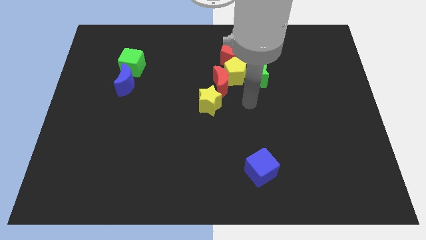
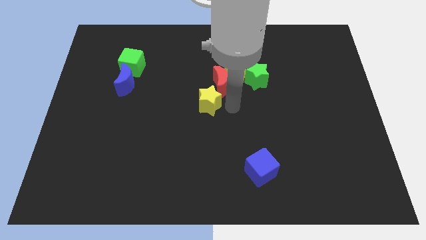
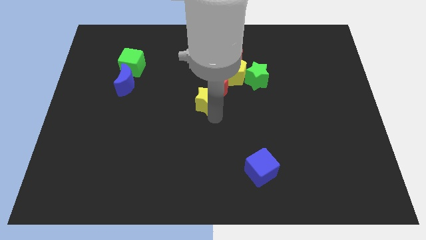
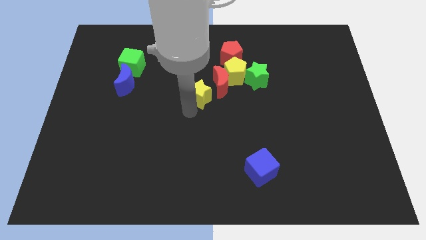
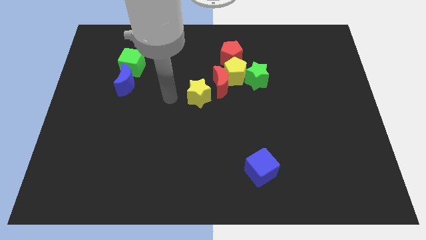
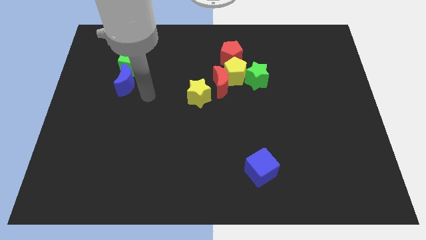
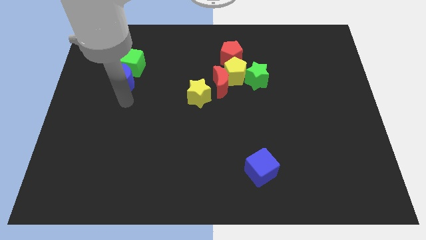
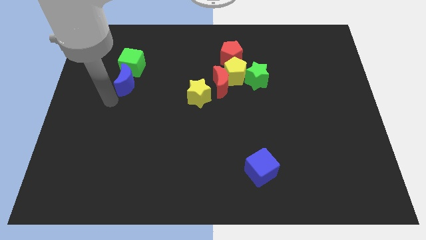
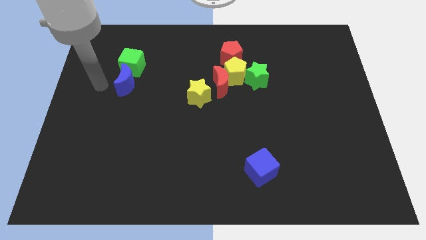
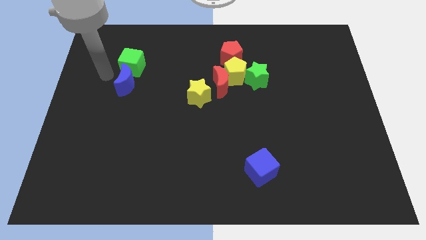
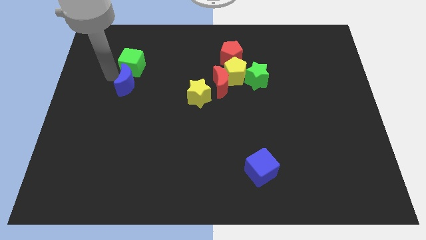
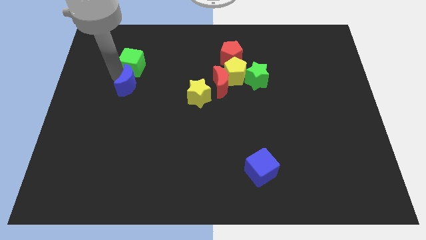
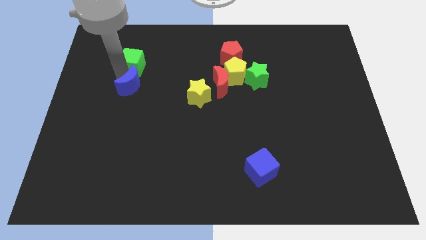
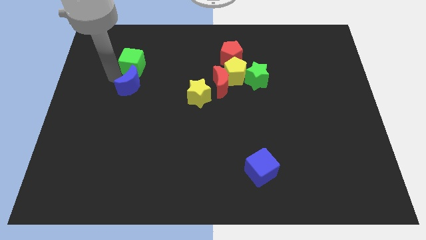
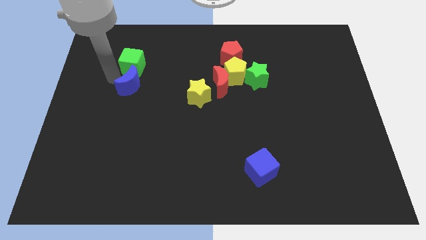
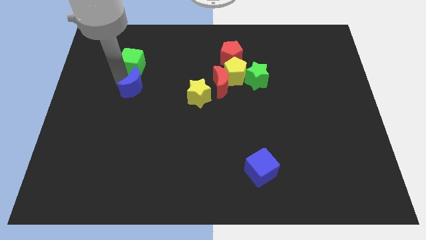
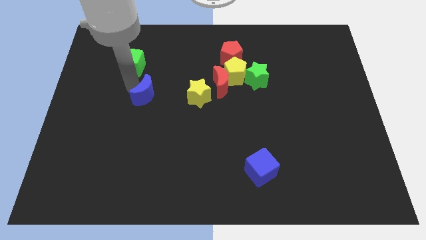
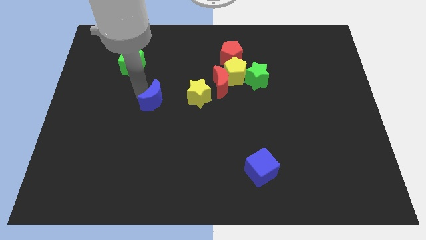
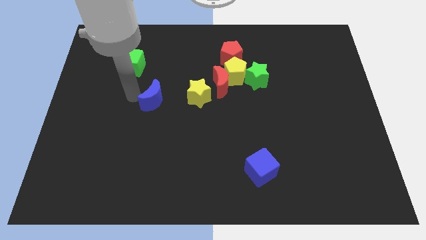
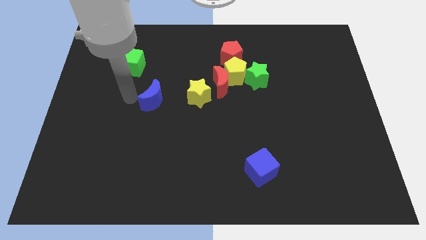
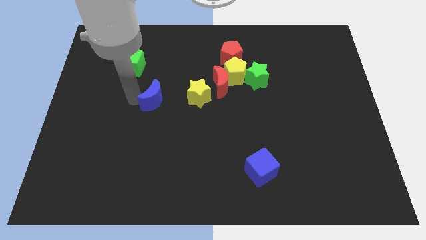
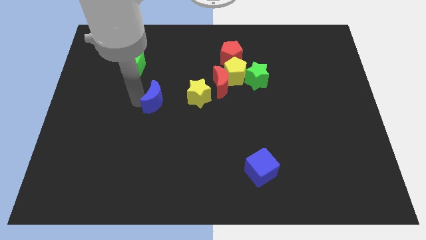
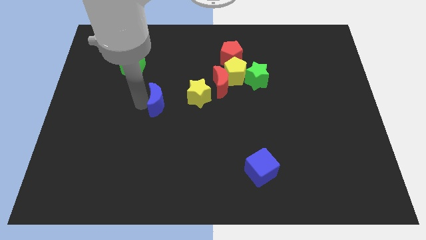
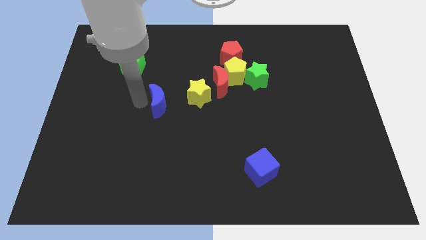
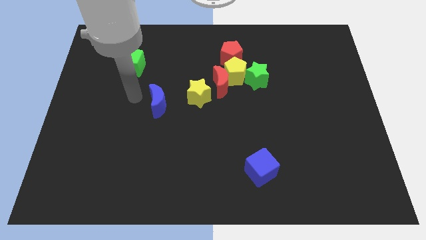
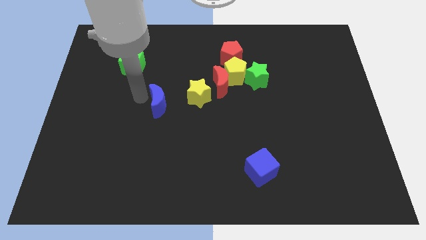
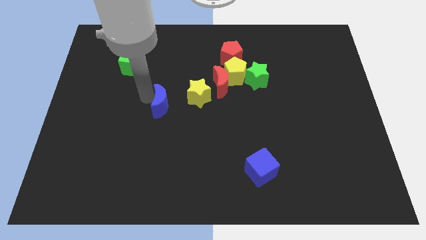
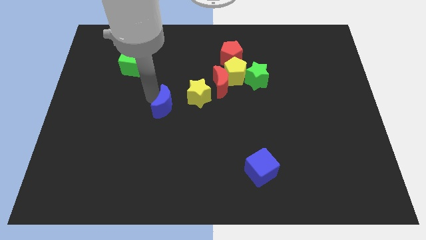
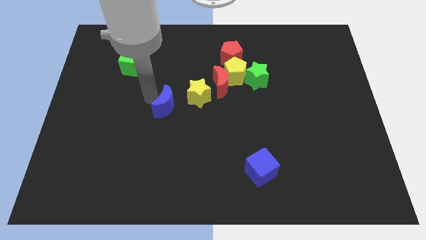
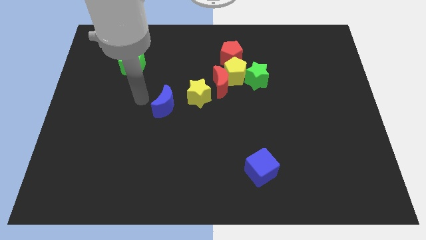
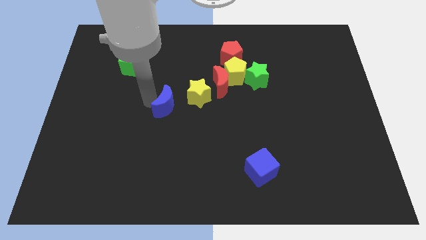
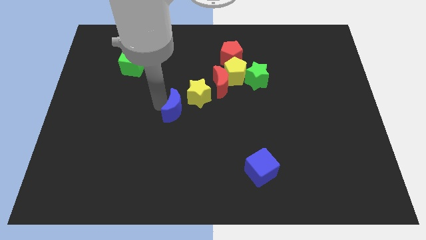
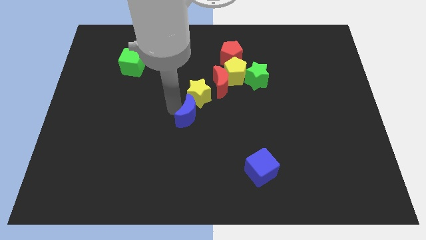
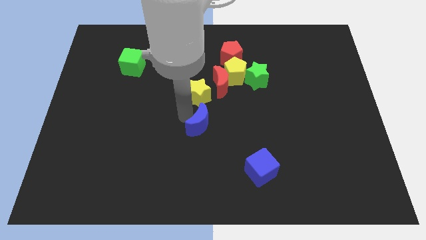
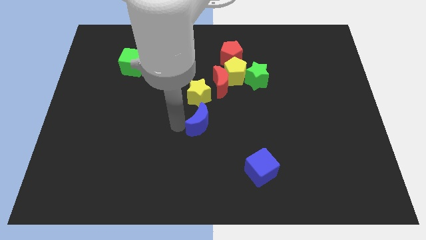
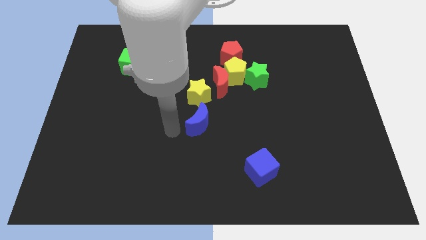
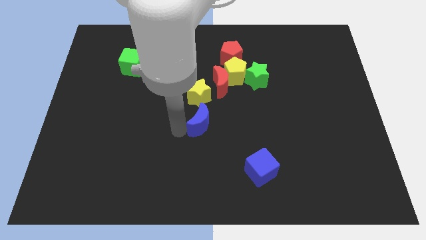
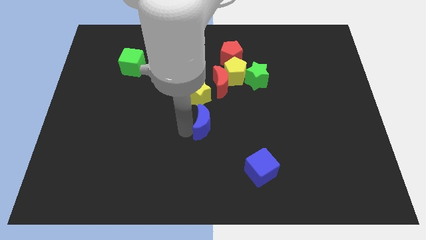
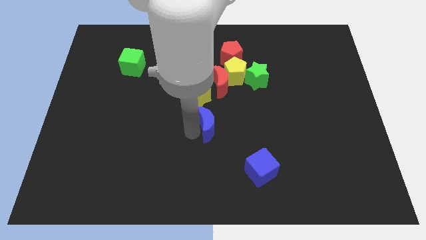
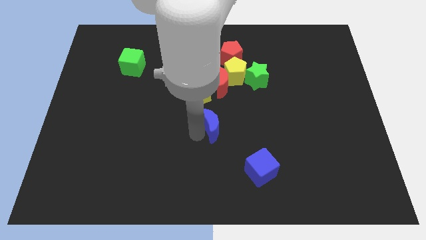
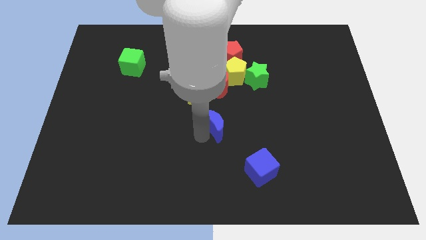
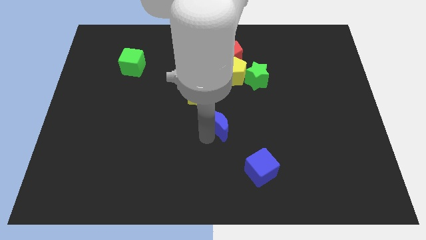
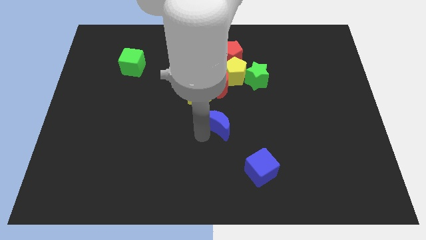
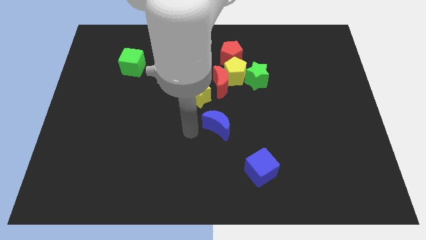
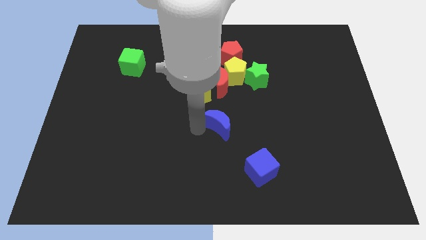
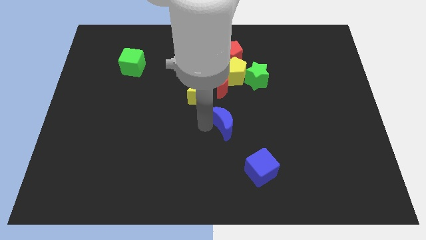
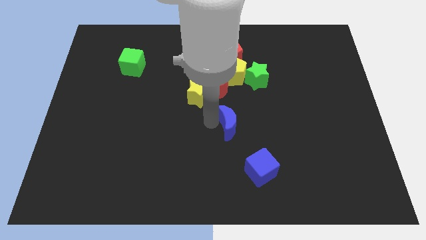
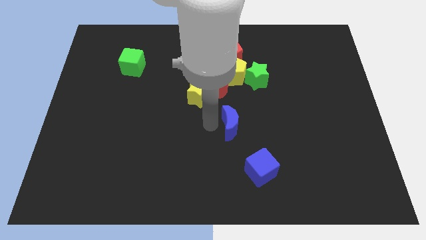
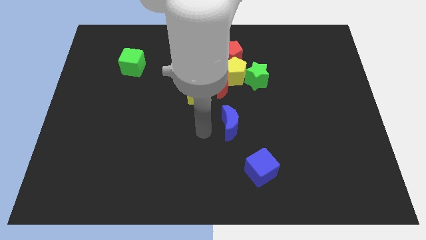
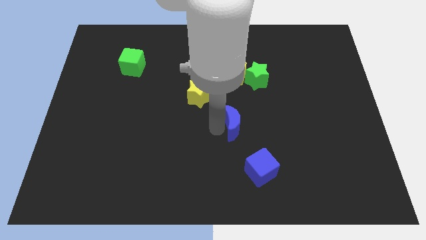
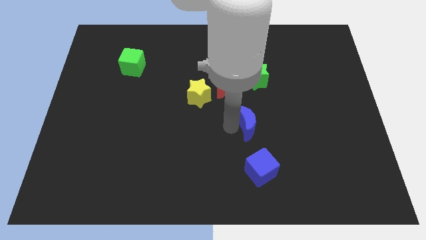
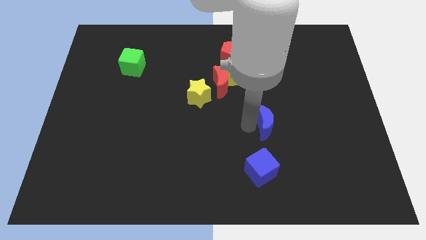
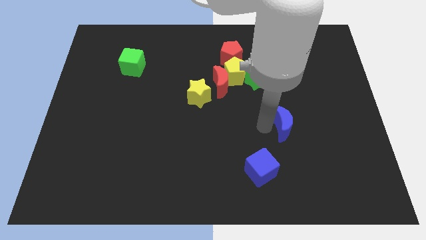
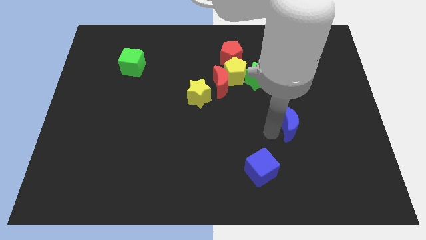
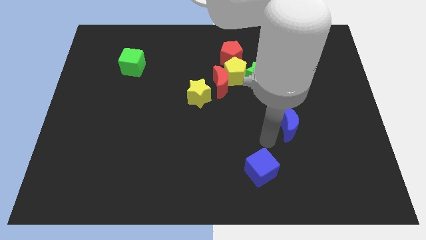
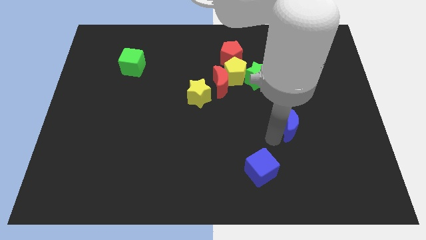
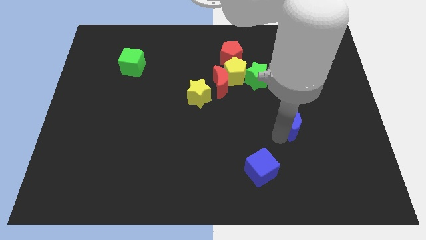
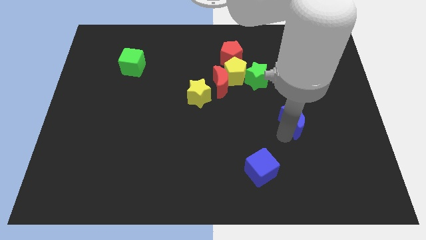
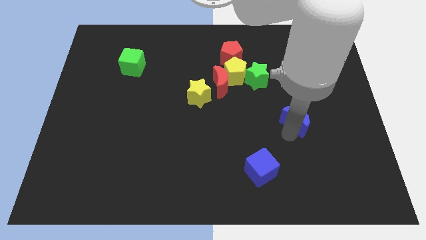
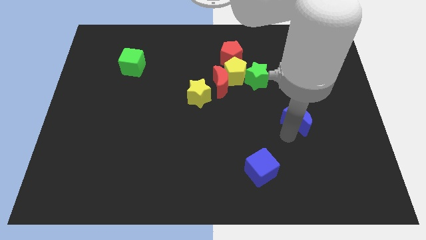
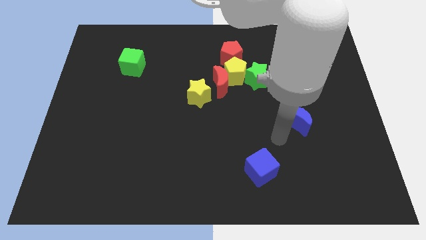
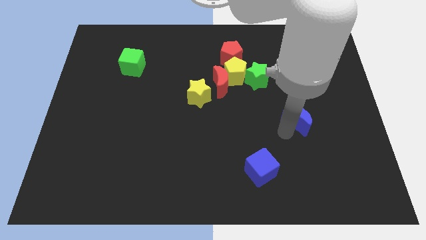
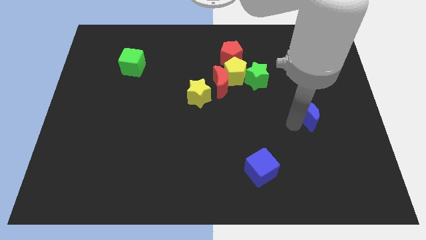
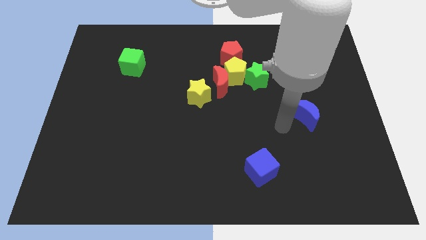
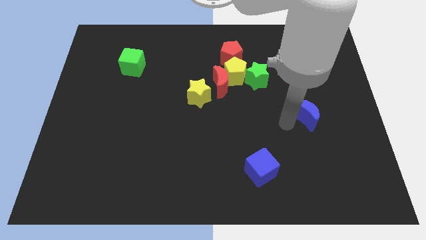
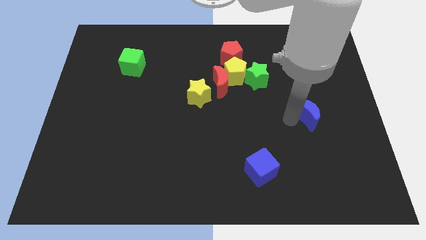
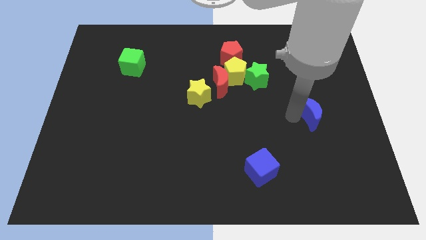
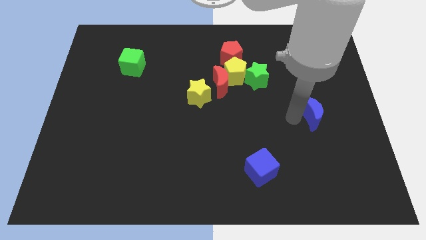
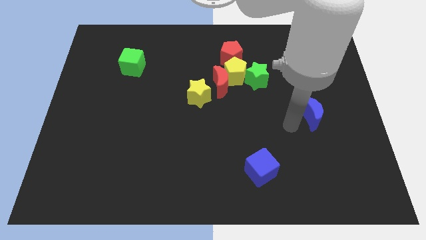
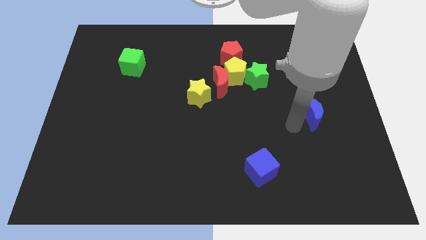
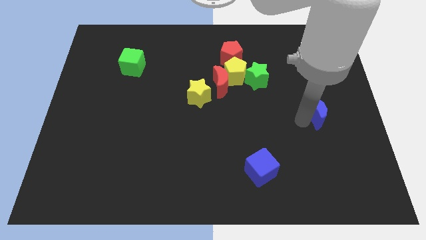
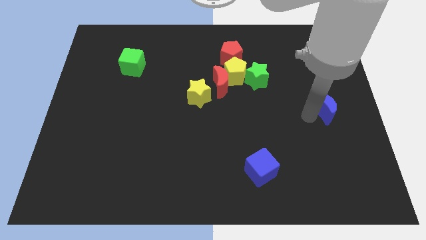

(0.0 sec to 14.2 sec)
slide the blue moon to the right side of the board

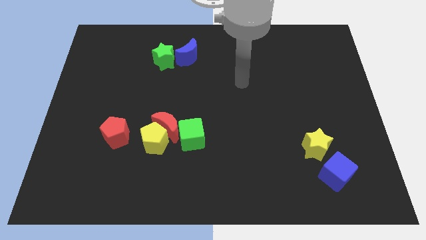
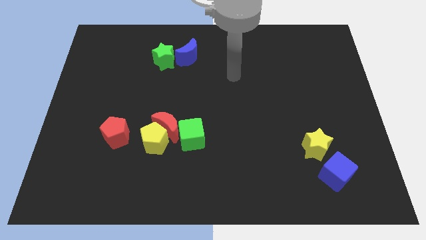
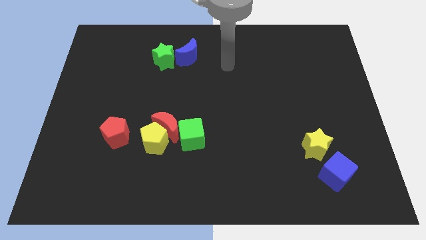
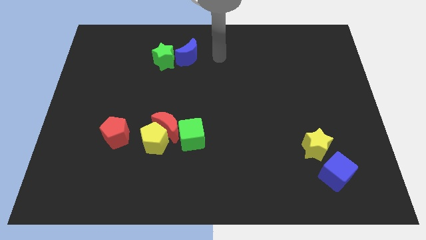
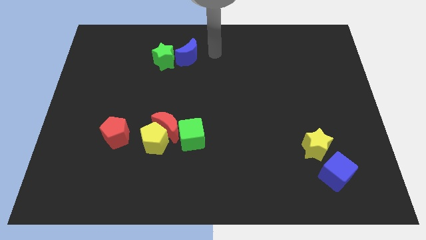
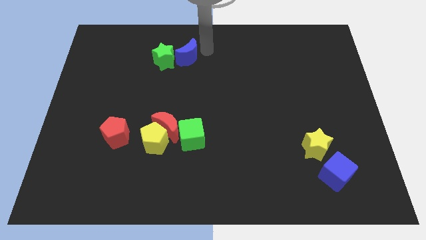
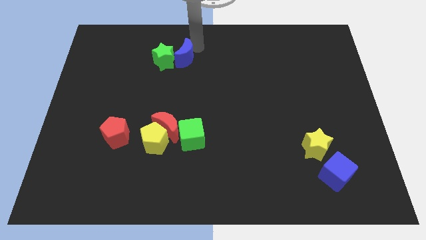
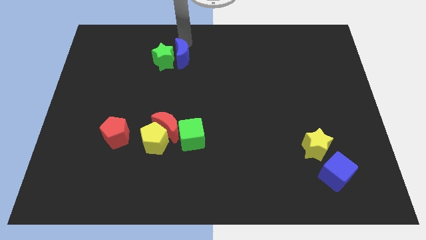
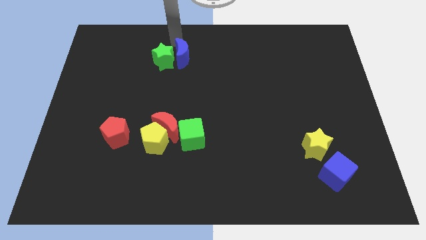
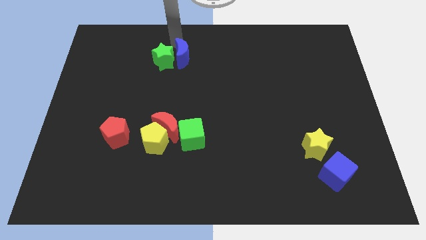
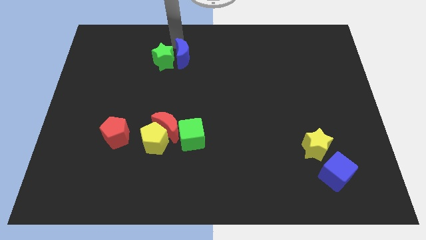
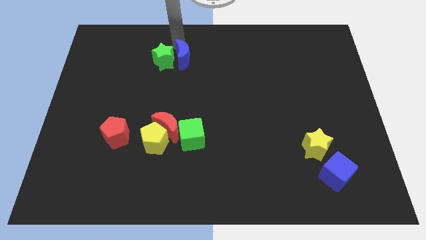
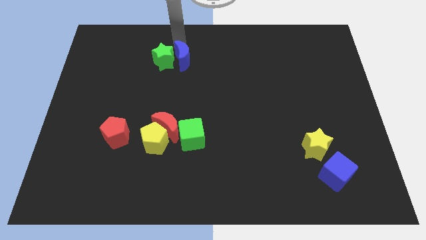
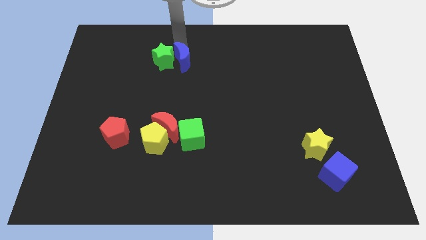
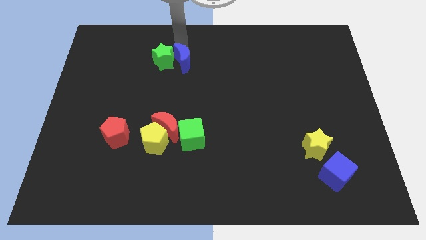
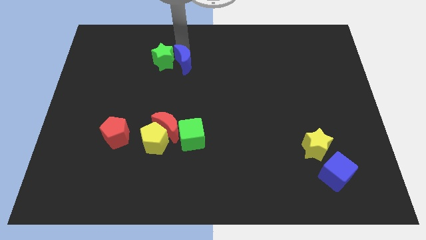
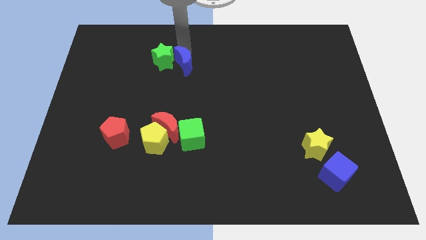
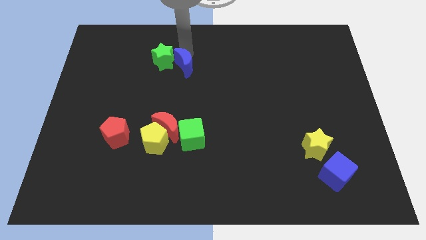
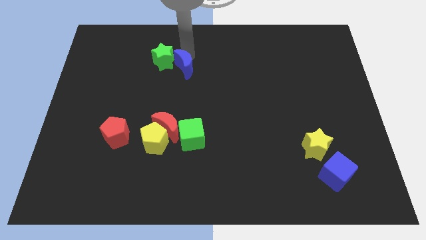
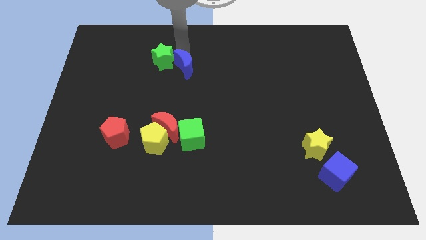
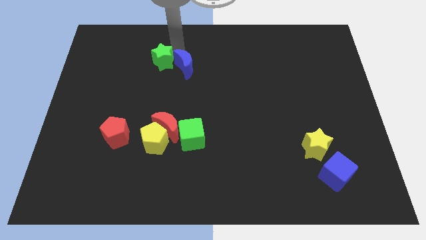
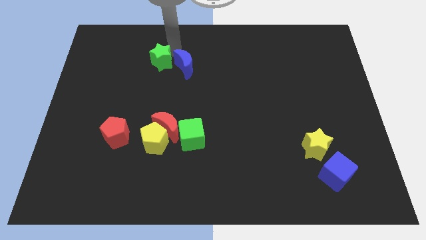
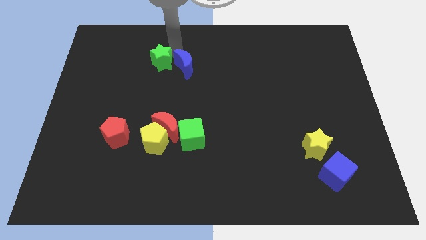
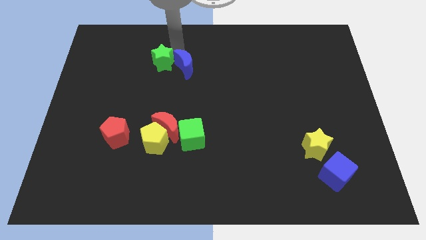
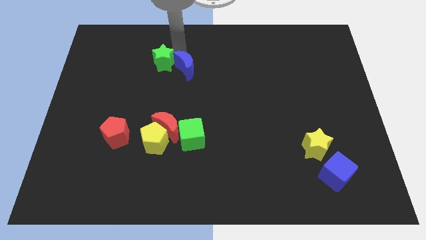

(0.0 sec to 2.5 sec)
move the blue moon to the middle of the board
